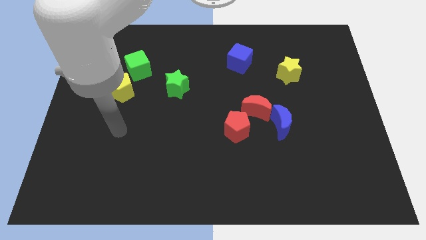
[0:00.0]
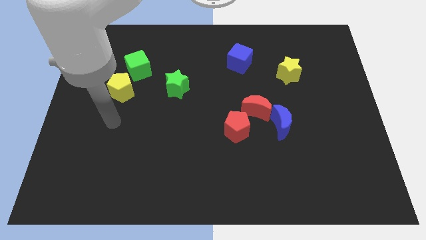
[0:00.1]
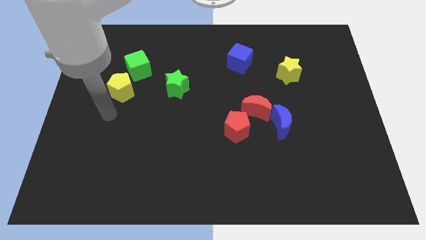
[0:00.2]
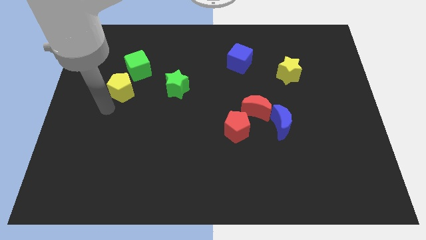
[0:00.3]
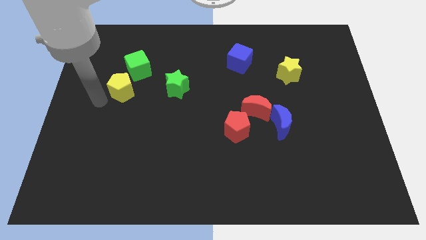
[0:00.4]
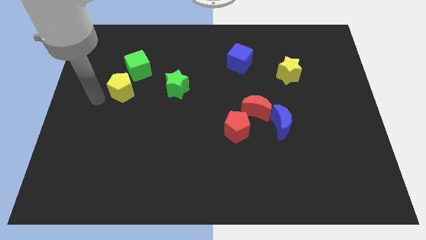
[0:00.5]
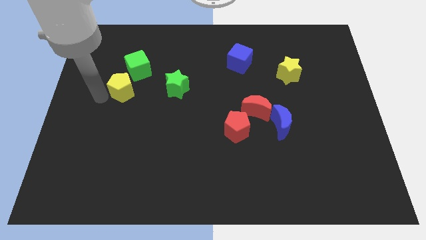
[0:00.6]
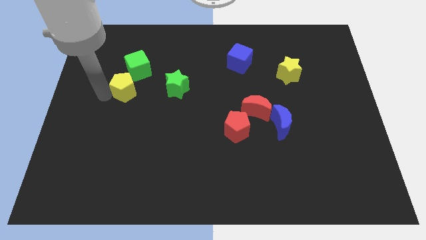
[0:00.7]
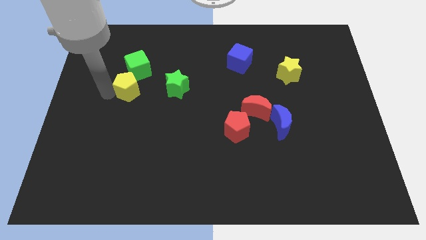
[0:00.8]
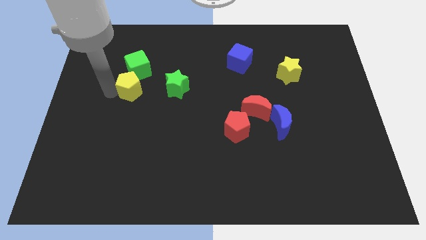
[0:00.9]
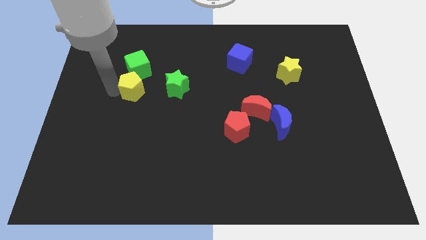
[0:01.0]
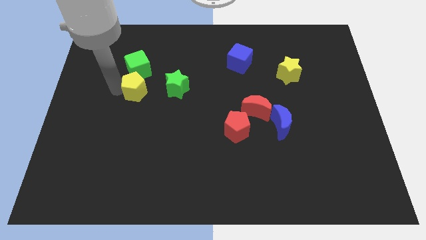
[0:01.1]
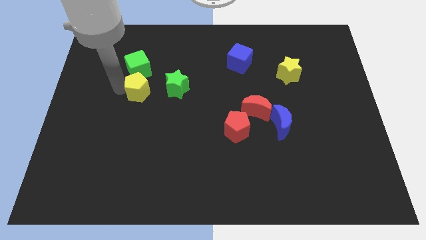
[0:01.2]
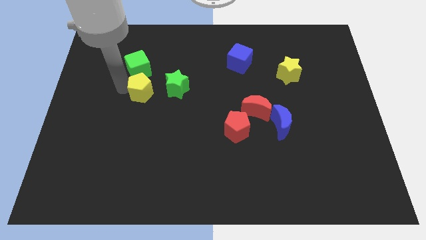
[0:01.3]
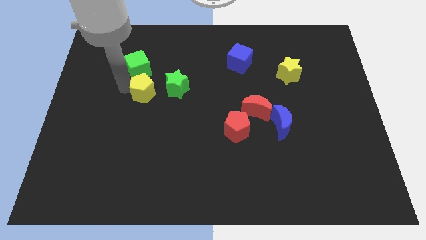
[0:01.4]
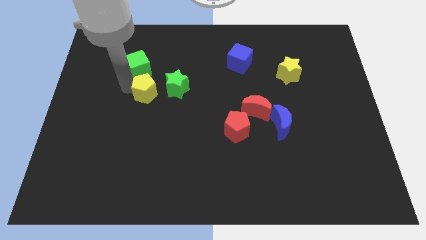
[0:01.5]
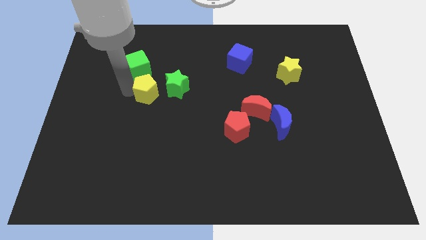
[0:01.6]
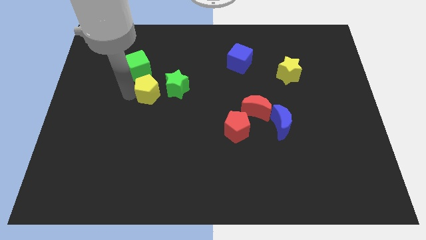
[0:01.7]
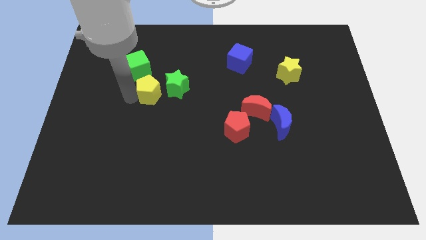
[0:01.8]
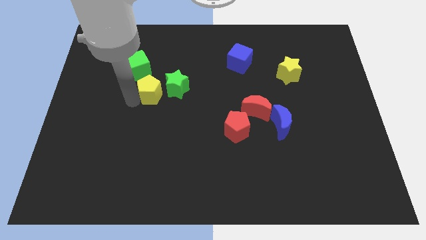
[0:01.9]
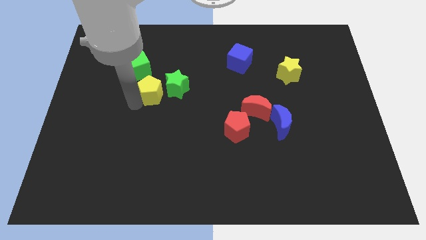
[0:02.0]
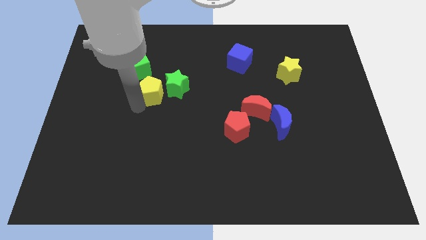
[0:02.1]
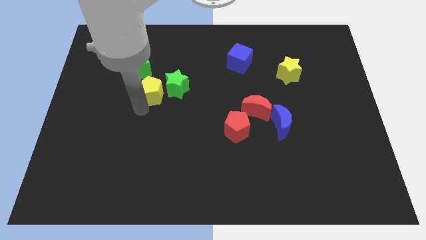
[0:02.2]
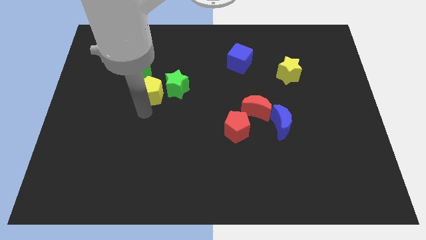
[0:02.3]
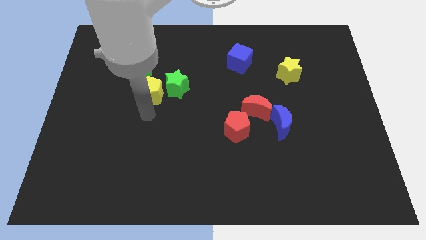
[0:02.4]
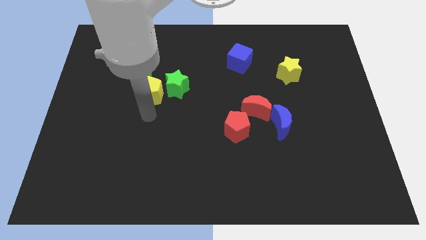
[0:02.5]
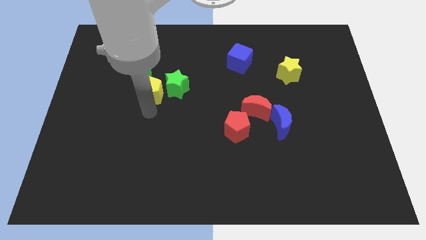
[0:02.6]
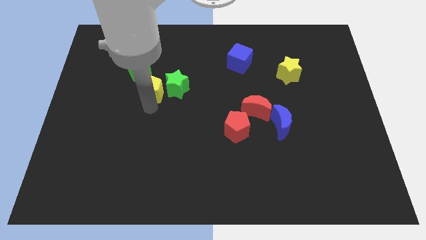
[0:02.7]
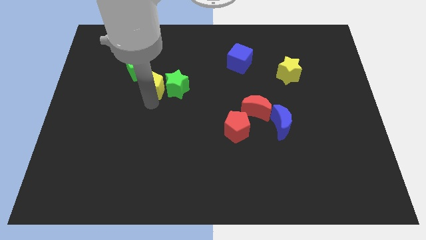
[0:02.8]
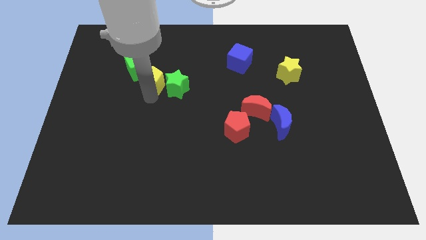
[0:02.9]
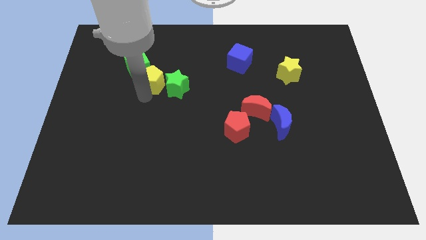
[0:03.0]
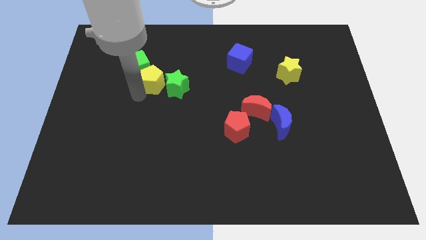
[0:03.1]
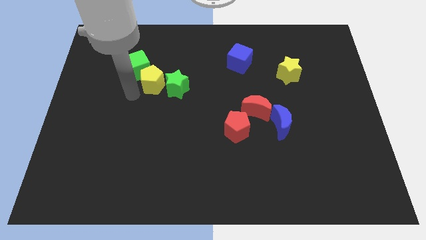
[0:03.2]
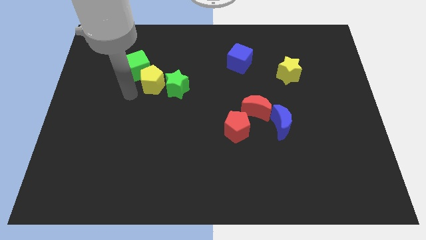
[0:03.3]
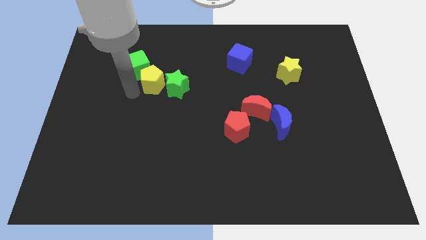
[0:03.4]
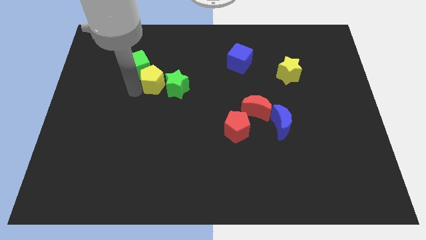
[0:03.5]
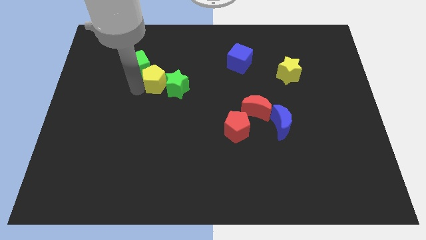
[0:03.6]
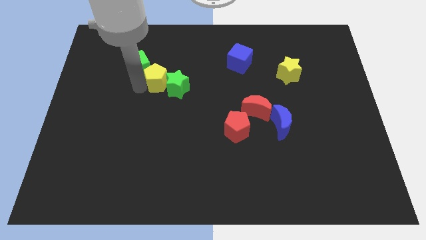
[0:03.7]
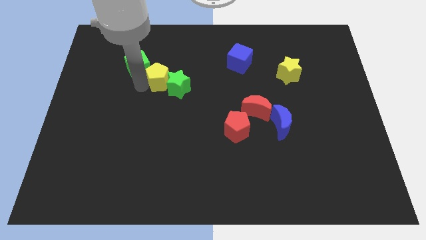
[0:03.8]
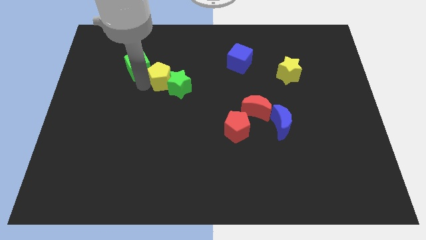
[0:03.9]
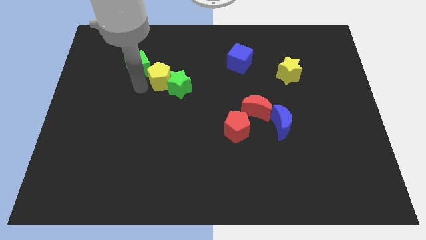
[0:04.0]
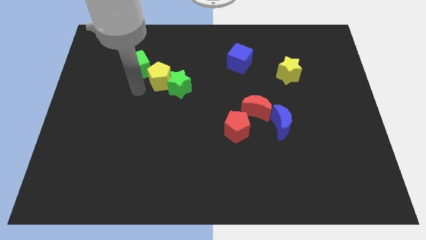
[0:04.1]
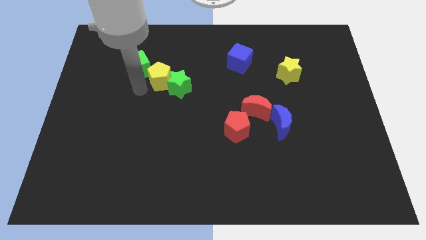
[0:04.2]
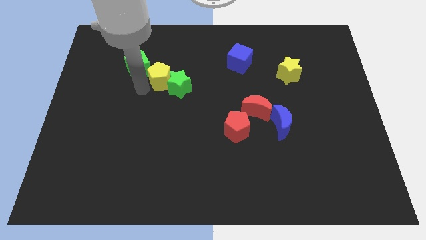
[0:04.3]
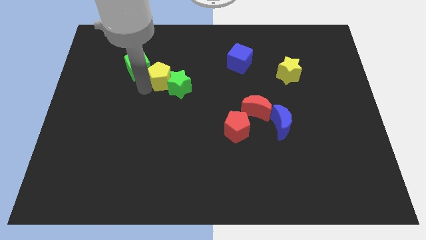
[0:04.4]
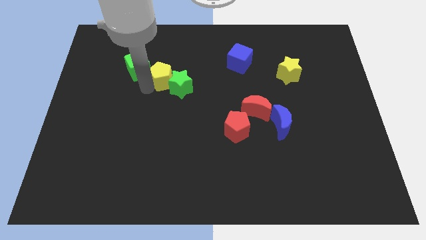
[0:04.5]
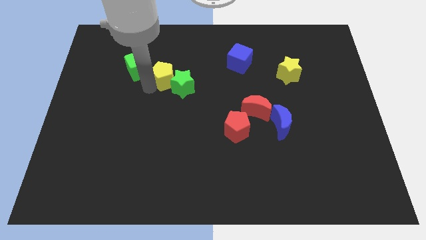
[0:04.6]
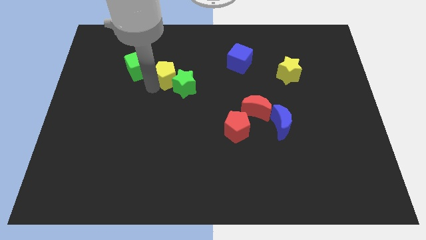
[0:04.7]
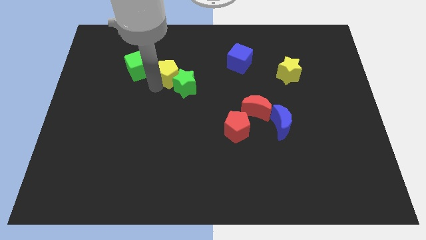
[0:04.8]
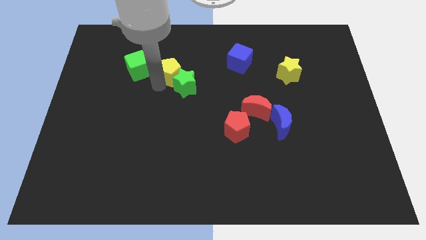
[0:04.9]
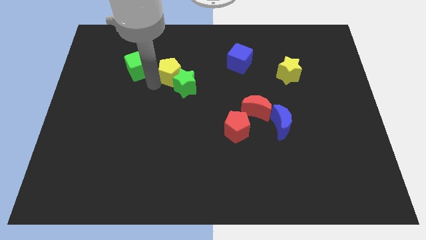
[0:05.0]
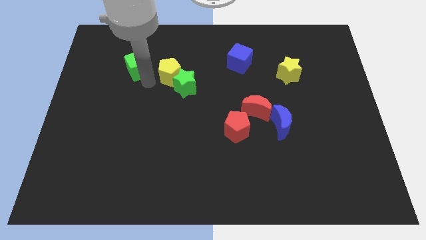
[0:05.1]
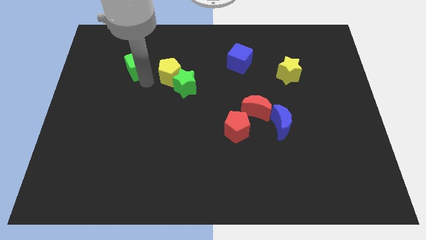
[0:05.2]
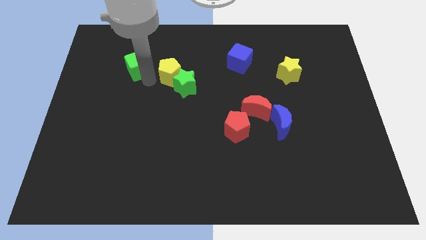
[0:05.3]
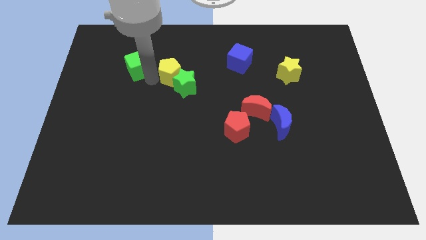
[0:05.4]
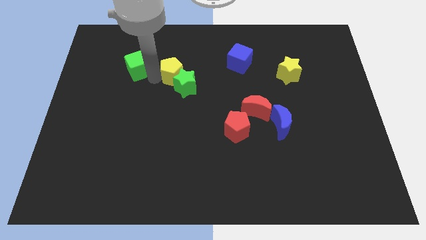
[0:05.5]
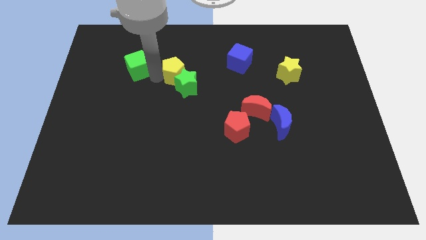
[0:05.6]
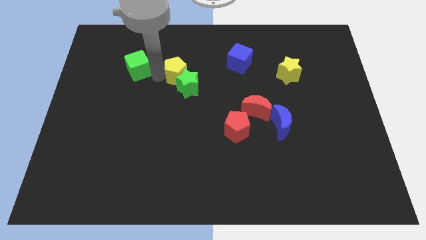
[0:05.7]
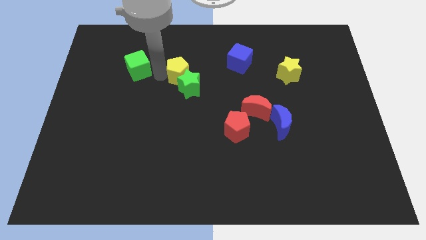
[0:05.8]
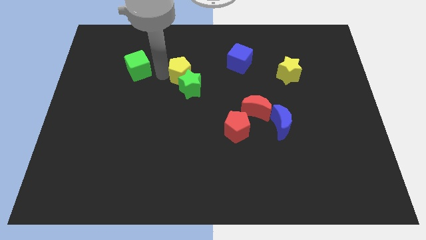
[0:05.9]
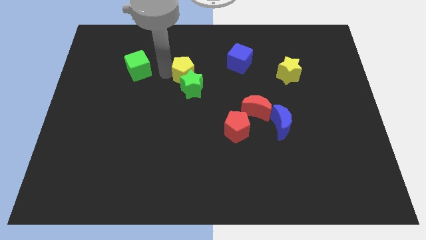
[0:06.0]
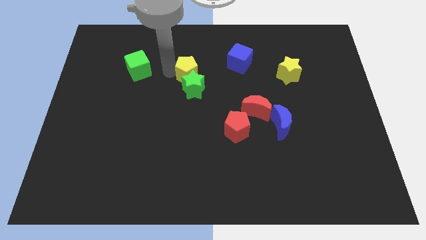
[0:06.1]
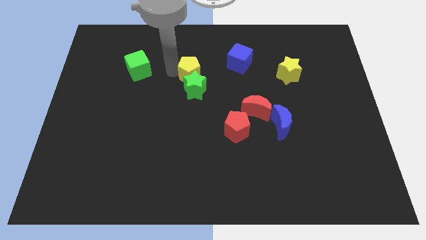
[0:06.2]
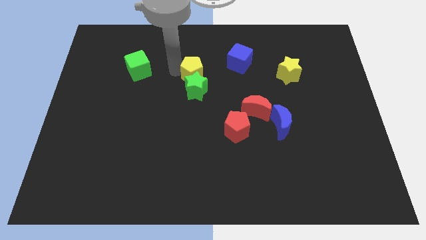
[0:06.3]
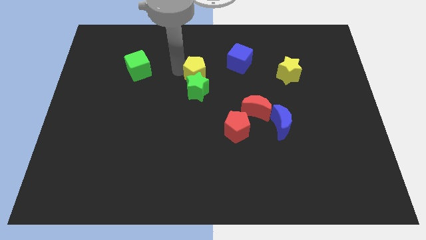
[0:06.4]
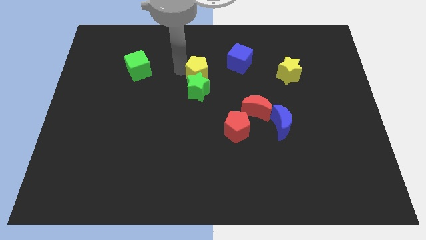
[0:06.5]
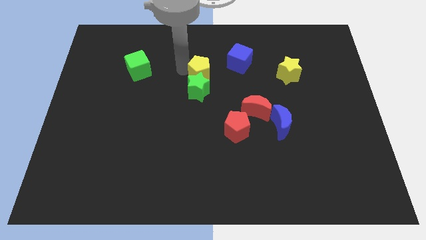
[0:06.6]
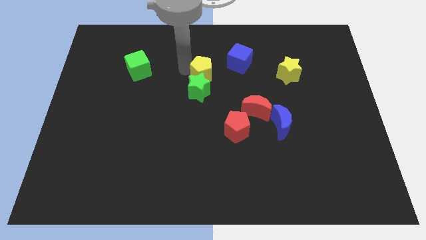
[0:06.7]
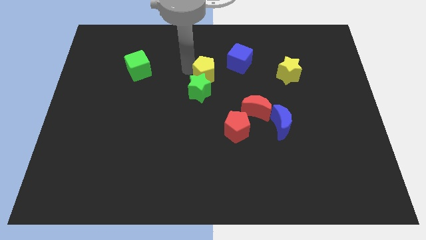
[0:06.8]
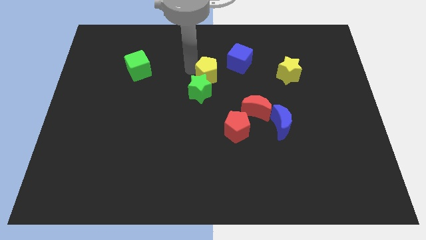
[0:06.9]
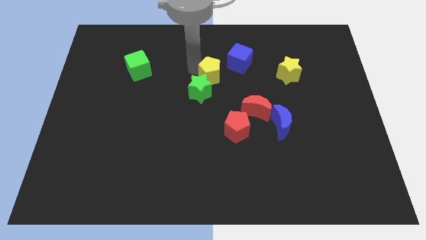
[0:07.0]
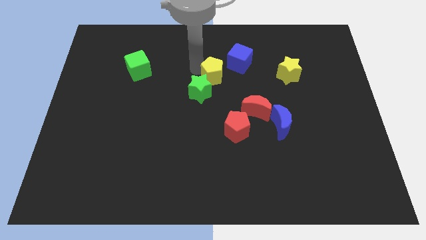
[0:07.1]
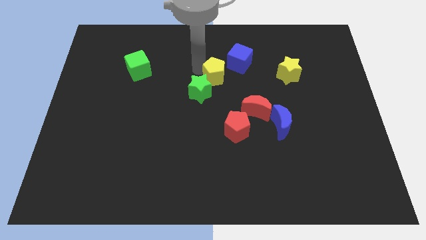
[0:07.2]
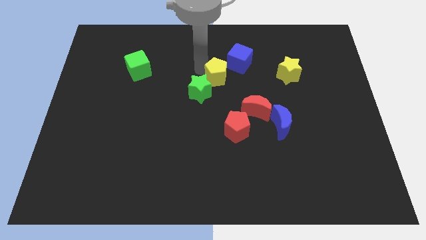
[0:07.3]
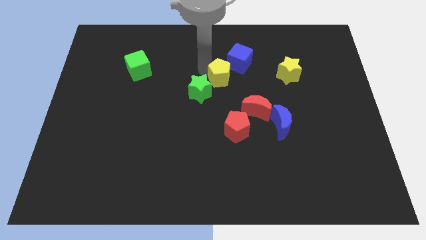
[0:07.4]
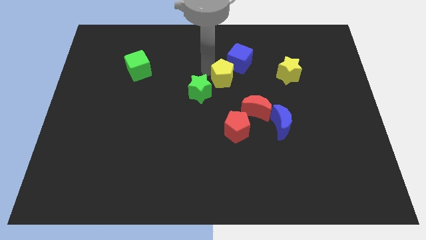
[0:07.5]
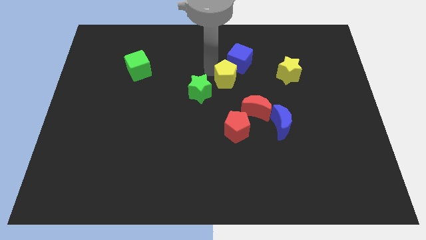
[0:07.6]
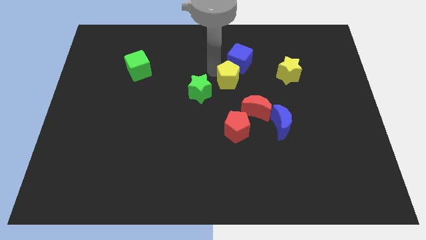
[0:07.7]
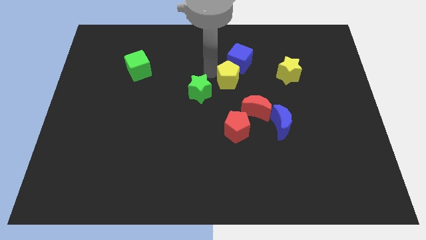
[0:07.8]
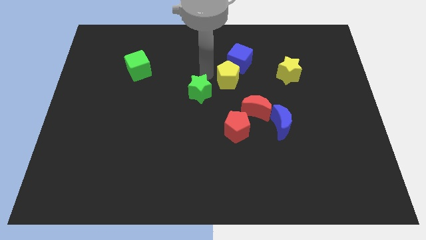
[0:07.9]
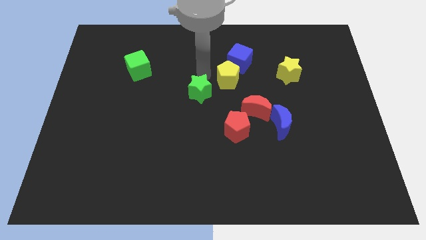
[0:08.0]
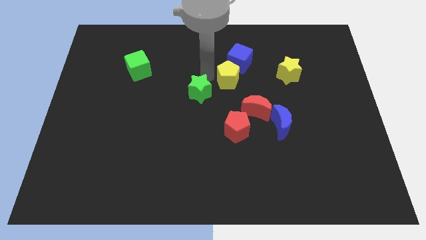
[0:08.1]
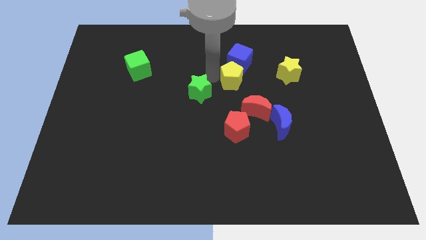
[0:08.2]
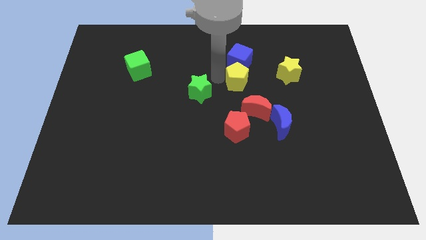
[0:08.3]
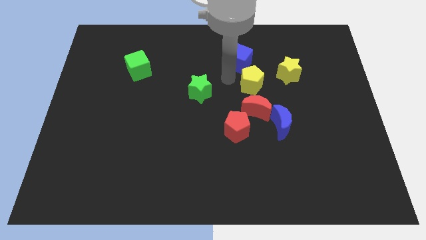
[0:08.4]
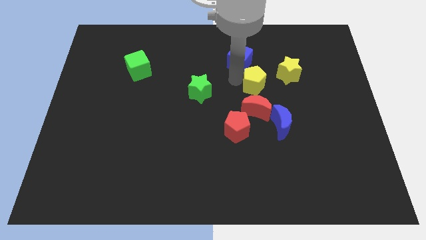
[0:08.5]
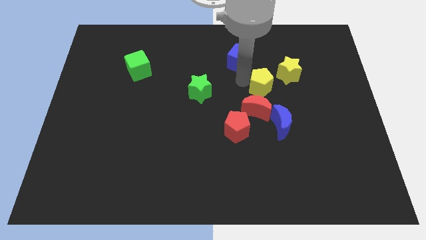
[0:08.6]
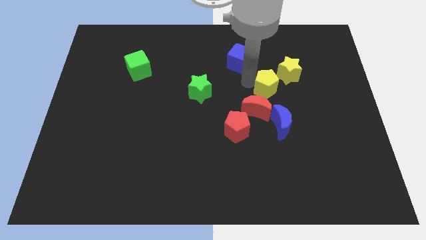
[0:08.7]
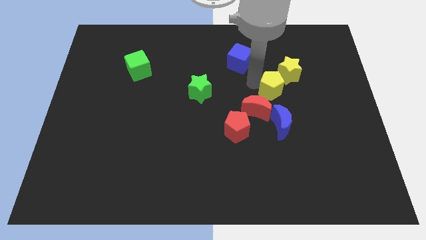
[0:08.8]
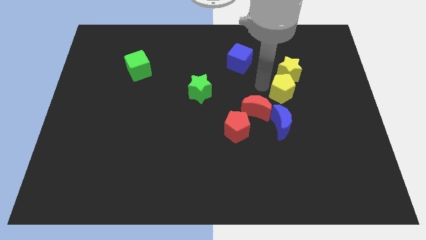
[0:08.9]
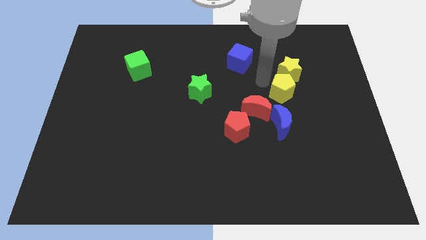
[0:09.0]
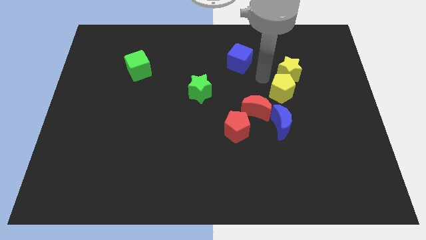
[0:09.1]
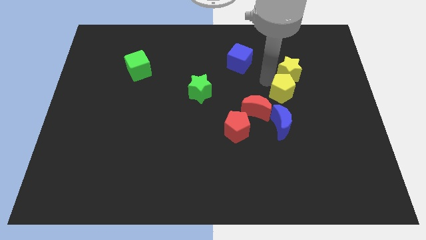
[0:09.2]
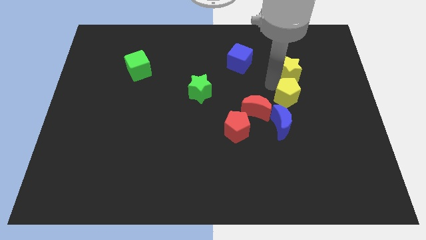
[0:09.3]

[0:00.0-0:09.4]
move the yellow pentagon to the top right of the blue moon
